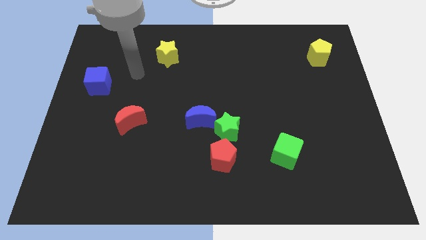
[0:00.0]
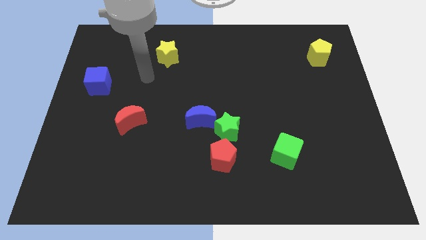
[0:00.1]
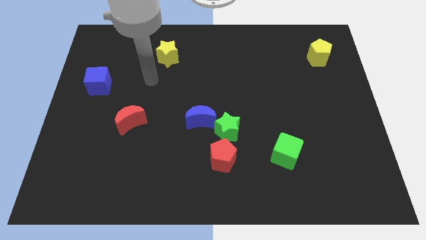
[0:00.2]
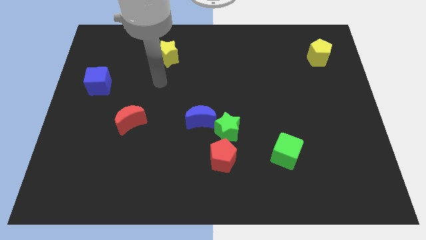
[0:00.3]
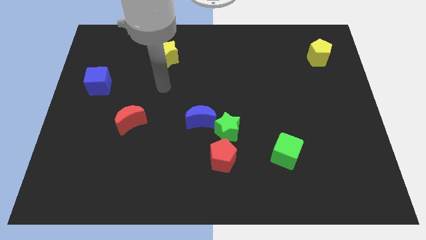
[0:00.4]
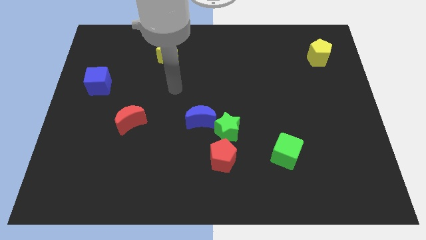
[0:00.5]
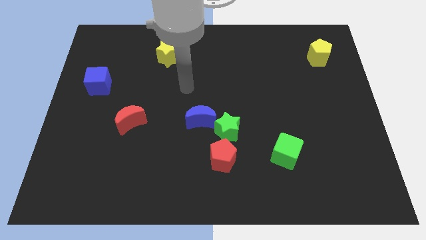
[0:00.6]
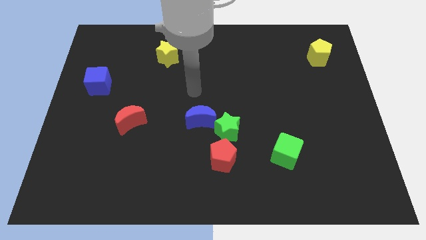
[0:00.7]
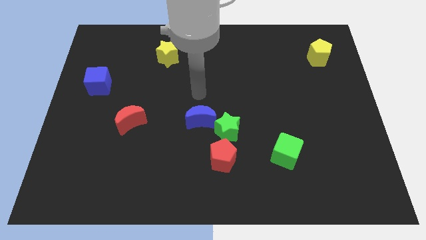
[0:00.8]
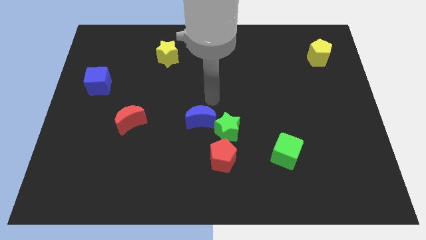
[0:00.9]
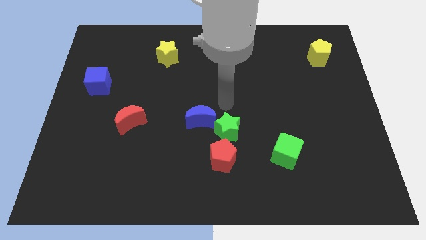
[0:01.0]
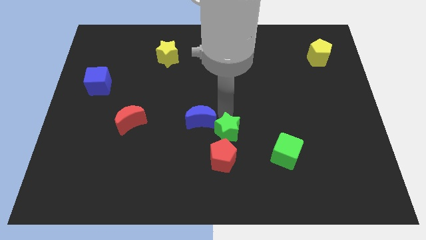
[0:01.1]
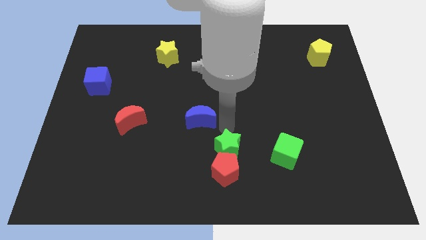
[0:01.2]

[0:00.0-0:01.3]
pull the blue moon apart from the green star

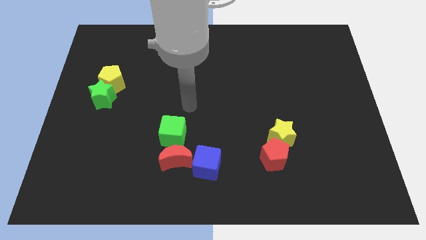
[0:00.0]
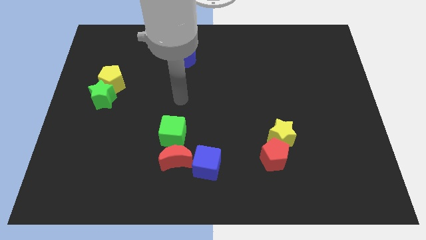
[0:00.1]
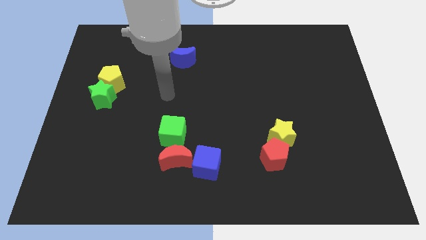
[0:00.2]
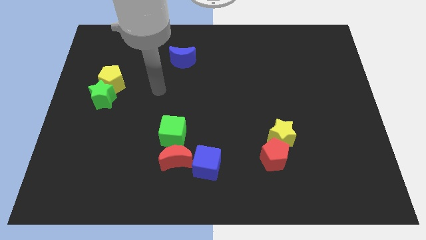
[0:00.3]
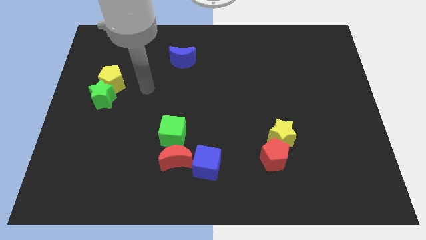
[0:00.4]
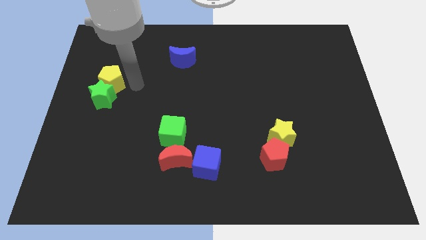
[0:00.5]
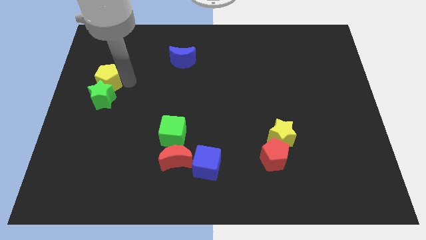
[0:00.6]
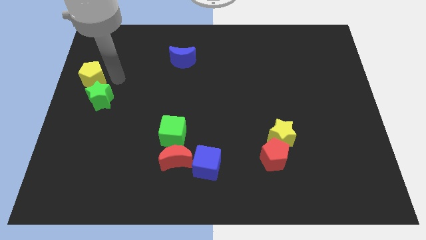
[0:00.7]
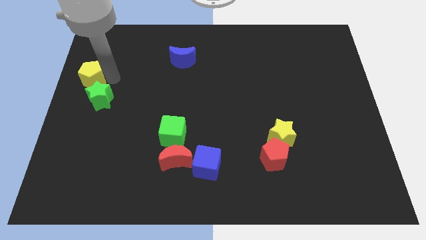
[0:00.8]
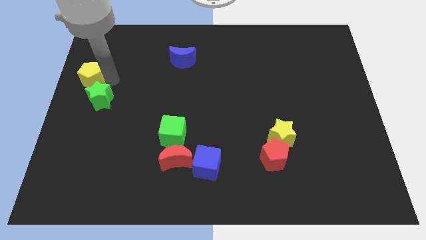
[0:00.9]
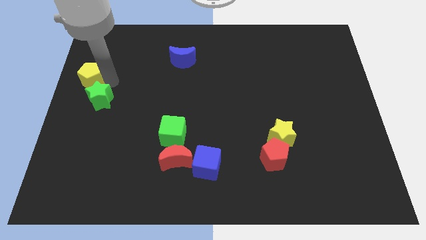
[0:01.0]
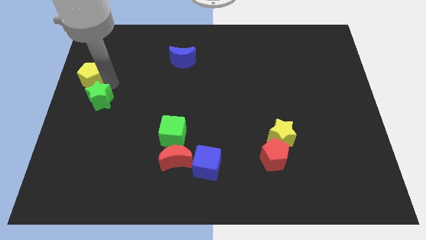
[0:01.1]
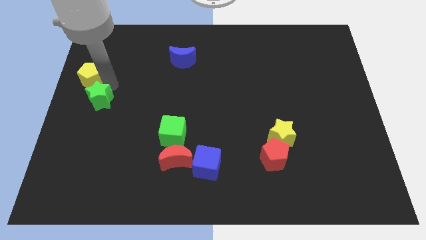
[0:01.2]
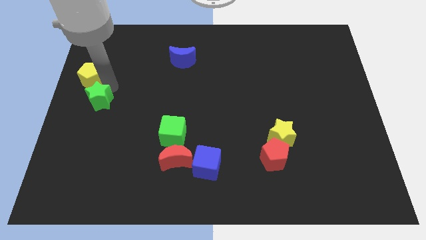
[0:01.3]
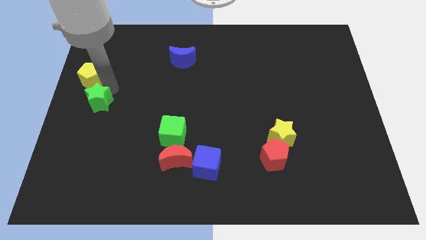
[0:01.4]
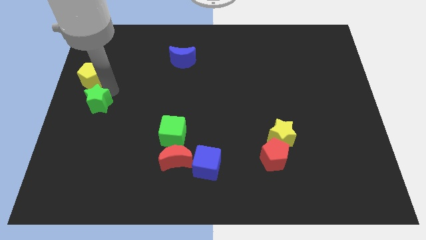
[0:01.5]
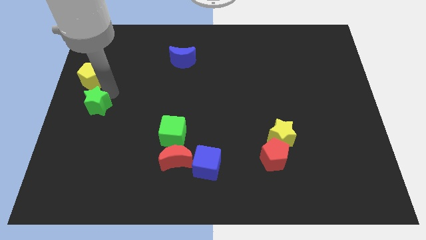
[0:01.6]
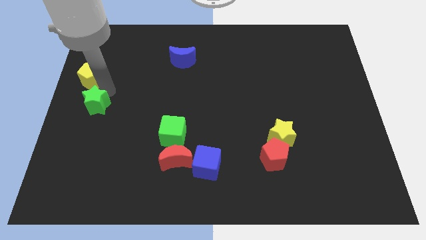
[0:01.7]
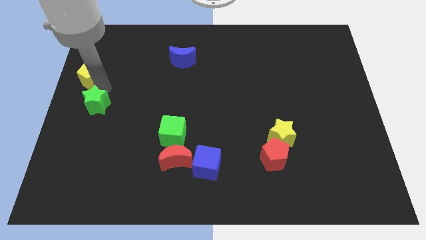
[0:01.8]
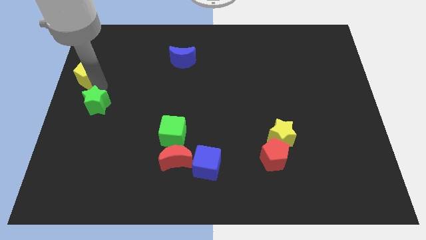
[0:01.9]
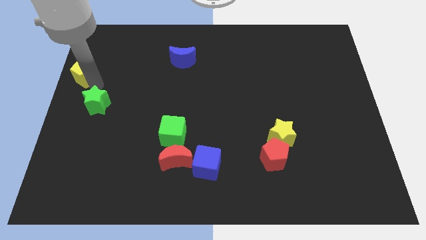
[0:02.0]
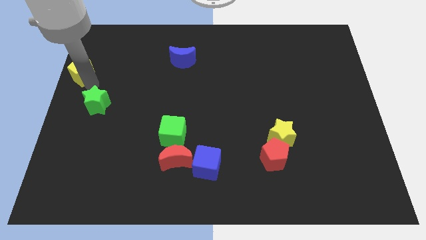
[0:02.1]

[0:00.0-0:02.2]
move the green star away from the yellow pentagon

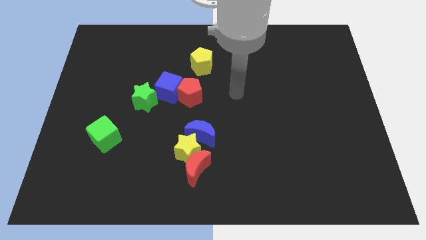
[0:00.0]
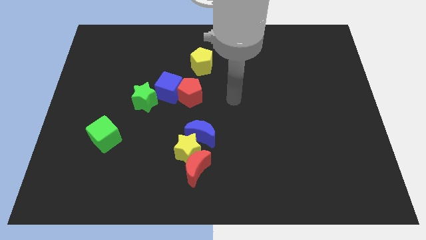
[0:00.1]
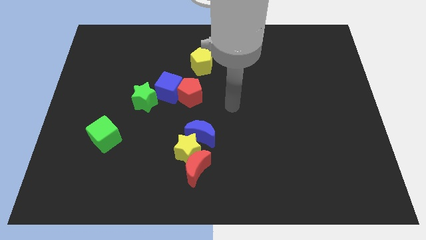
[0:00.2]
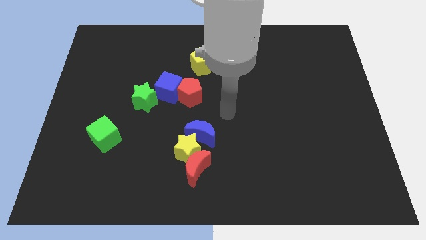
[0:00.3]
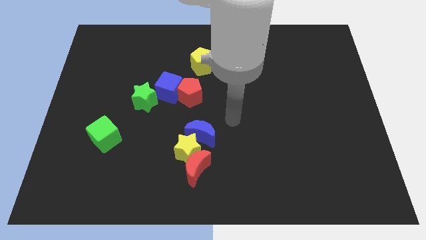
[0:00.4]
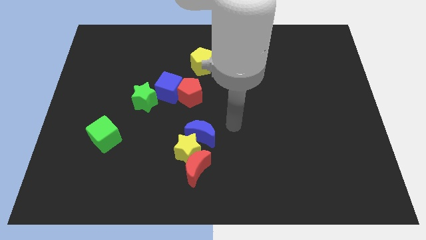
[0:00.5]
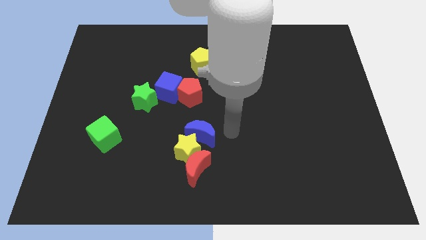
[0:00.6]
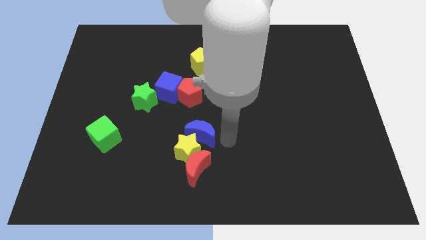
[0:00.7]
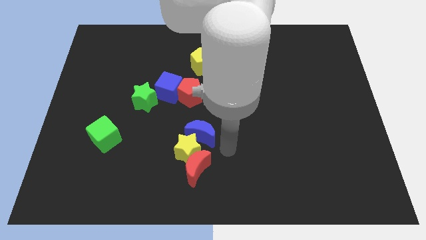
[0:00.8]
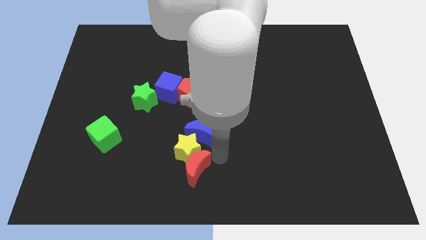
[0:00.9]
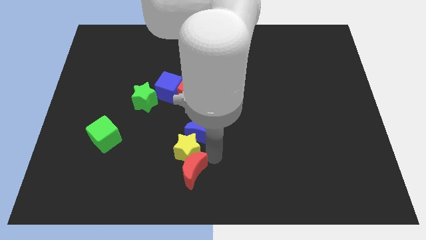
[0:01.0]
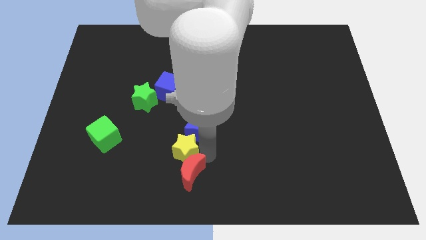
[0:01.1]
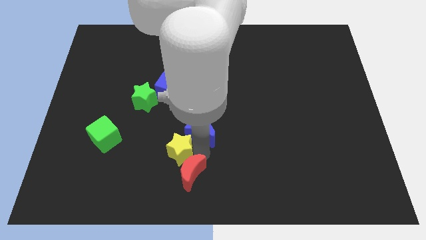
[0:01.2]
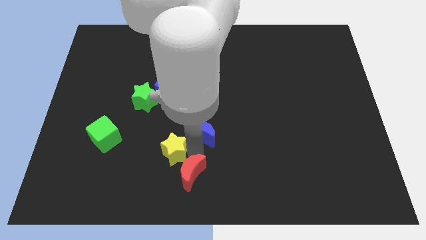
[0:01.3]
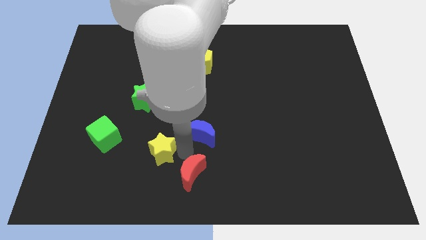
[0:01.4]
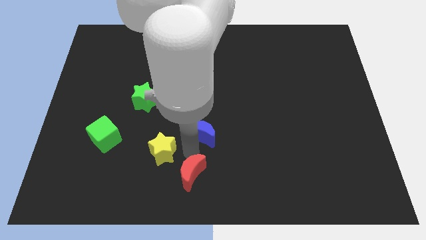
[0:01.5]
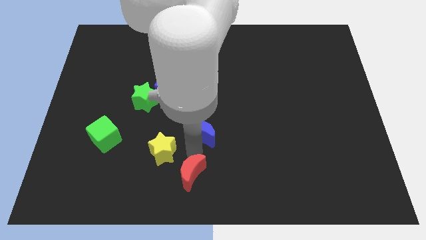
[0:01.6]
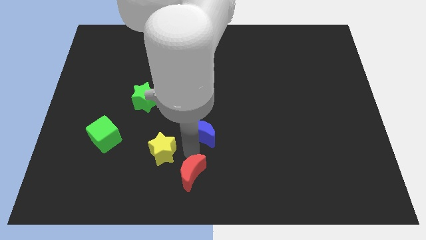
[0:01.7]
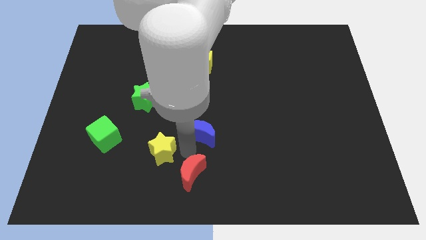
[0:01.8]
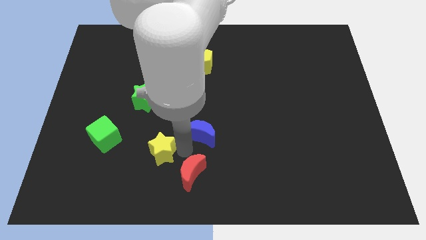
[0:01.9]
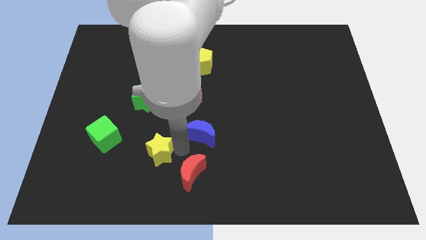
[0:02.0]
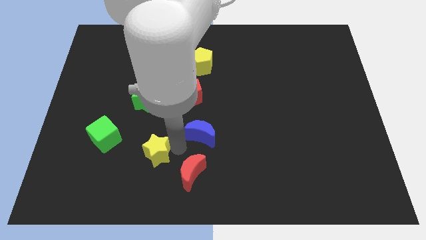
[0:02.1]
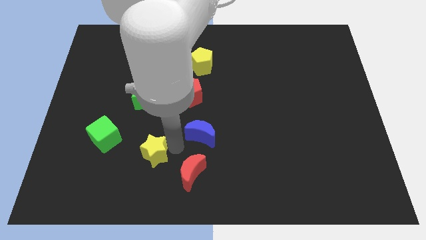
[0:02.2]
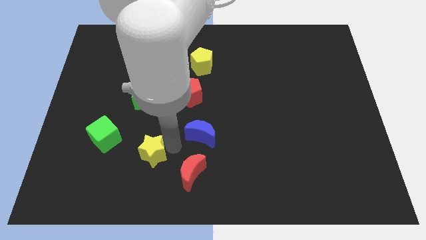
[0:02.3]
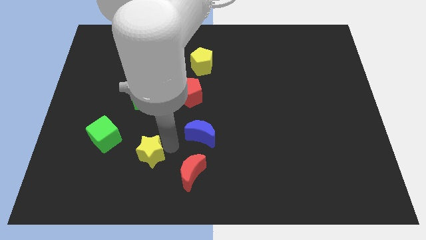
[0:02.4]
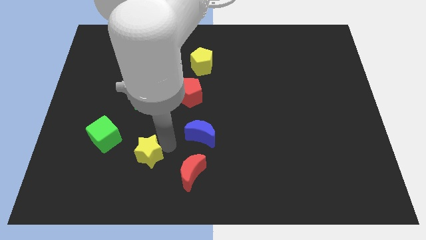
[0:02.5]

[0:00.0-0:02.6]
move the yellow star away from the red moon and blue moon

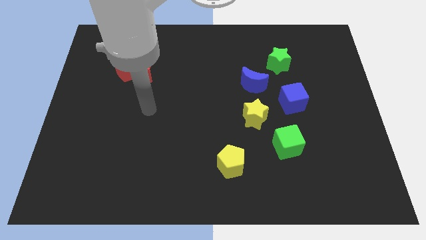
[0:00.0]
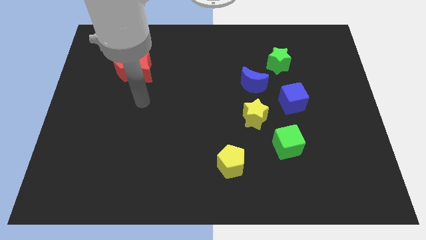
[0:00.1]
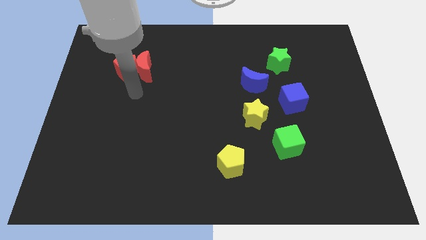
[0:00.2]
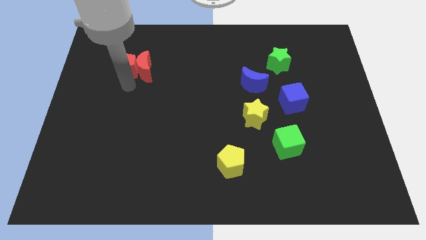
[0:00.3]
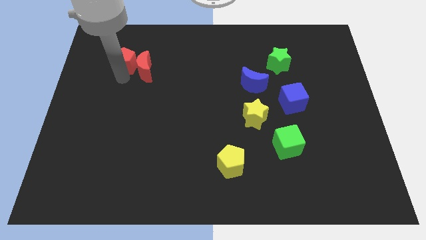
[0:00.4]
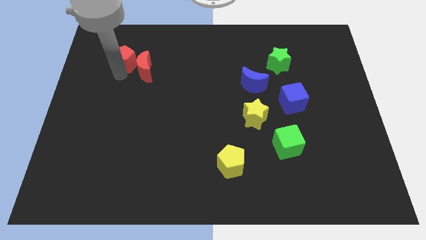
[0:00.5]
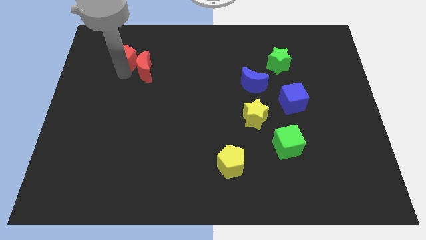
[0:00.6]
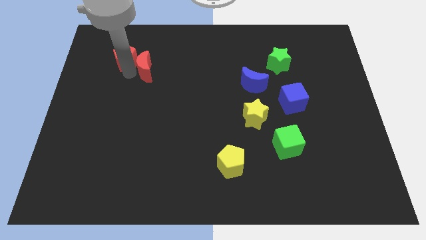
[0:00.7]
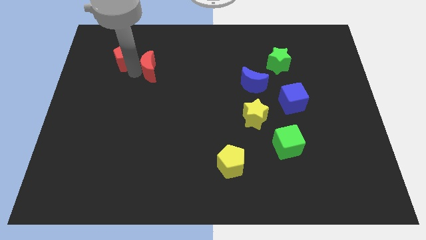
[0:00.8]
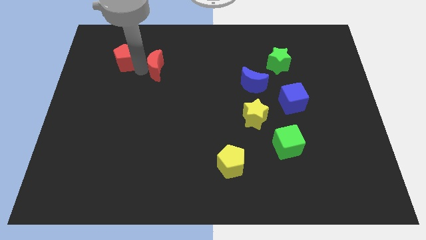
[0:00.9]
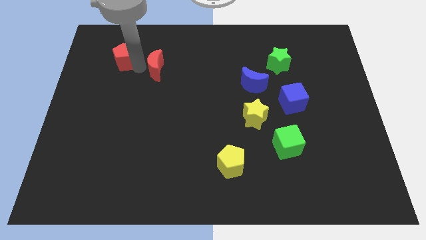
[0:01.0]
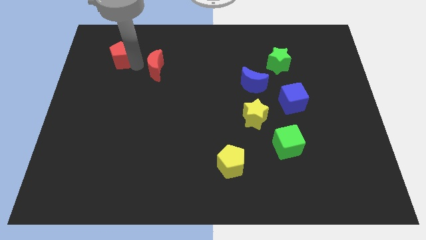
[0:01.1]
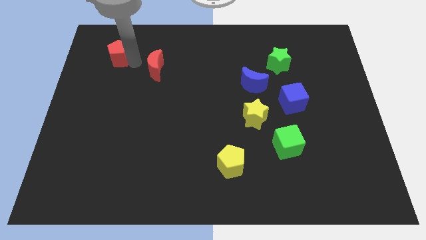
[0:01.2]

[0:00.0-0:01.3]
separate the red moon from the red pentagon

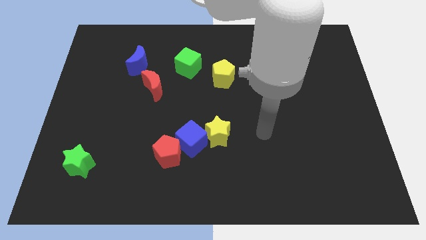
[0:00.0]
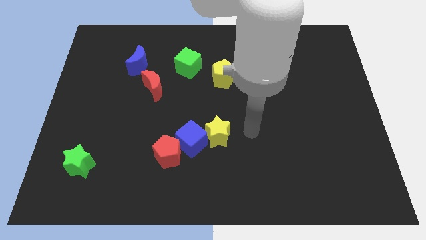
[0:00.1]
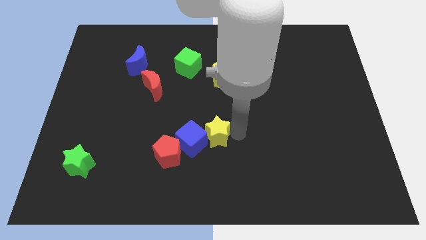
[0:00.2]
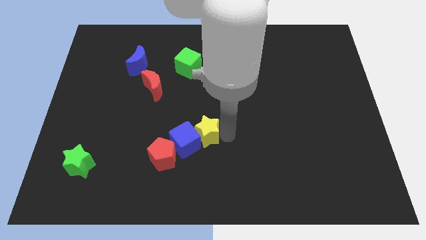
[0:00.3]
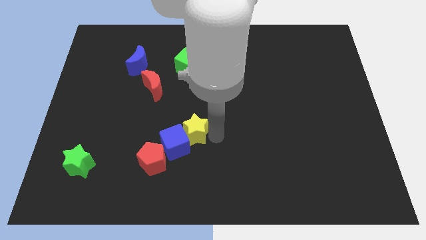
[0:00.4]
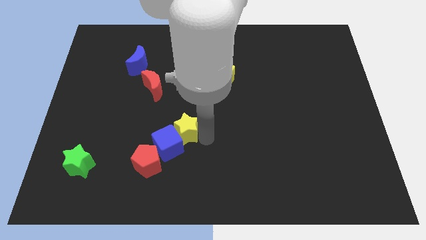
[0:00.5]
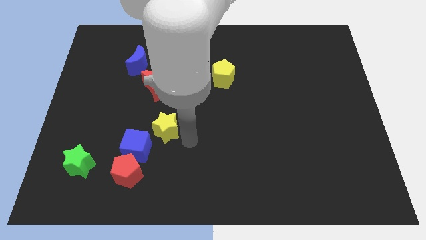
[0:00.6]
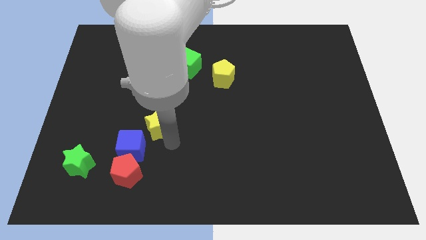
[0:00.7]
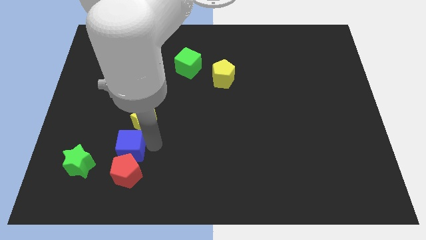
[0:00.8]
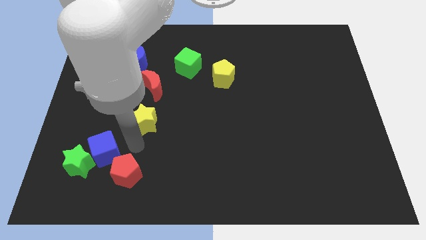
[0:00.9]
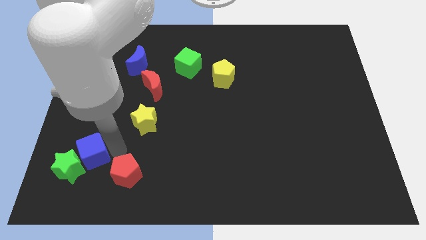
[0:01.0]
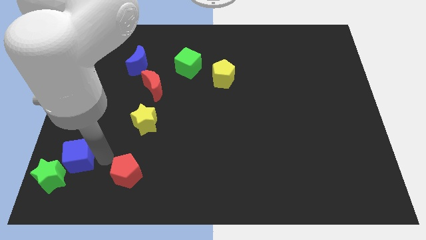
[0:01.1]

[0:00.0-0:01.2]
move the red pentagon away from the blue cube

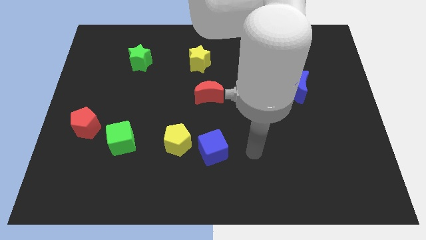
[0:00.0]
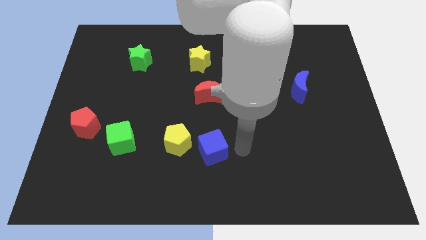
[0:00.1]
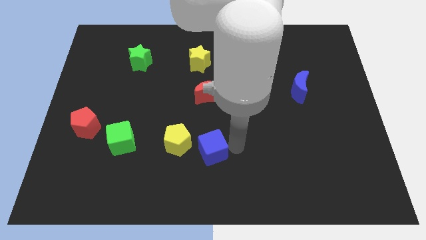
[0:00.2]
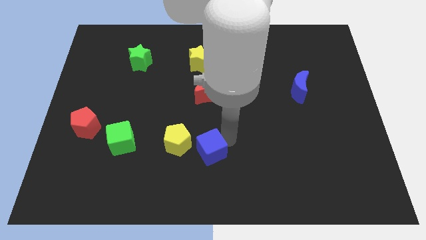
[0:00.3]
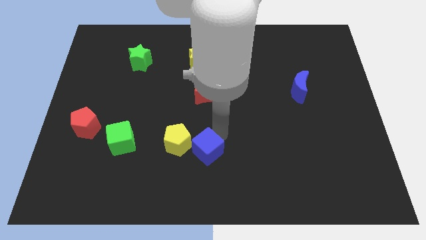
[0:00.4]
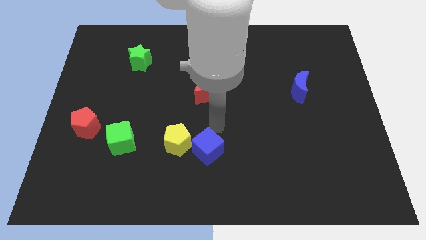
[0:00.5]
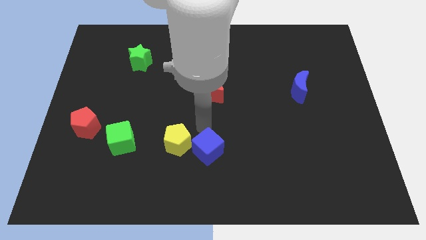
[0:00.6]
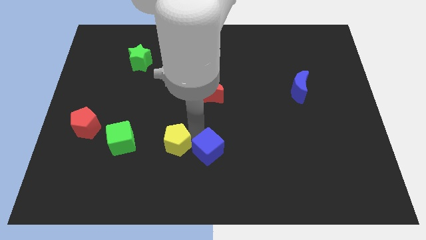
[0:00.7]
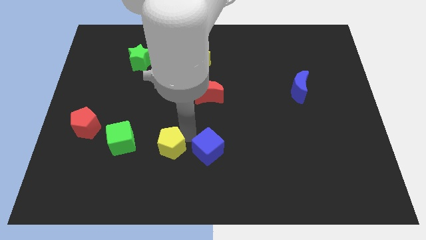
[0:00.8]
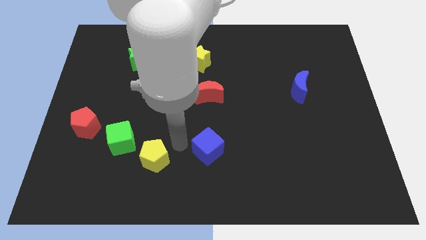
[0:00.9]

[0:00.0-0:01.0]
pull the blue cube apart from the yellow pentagon
